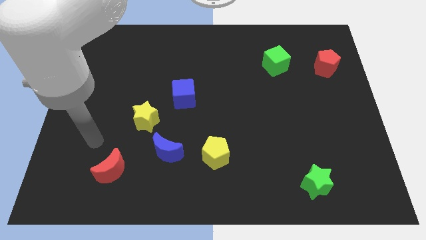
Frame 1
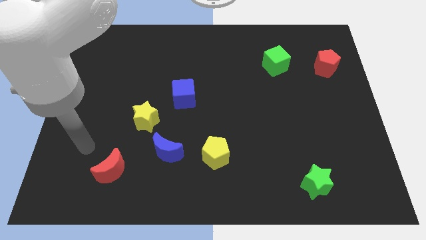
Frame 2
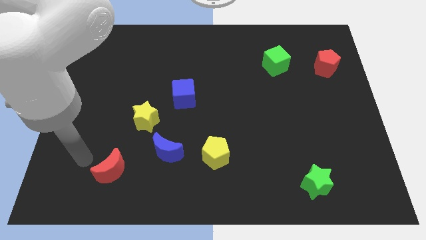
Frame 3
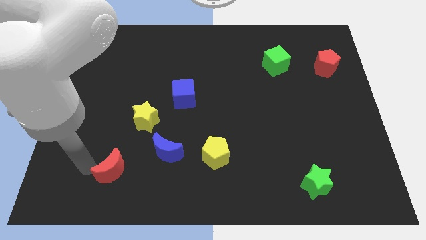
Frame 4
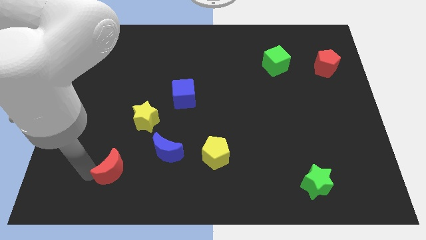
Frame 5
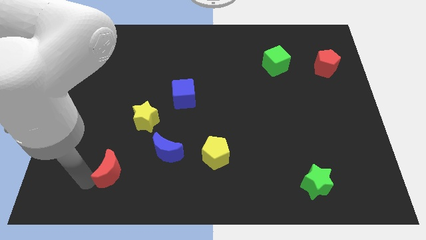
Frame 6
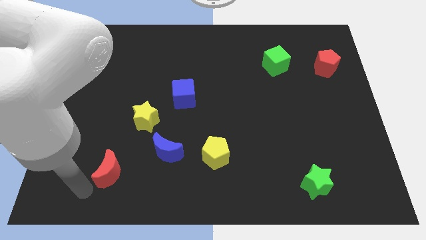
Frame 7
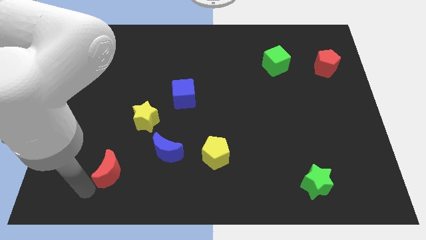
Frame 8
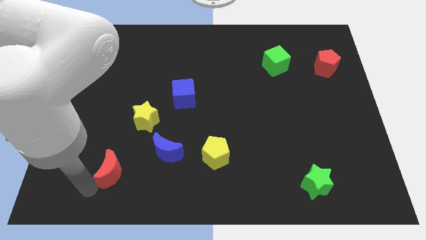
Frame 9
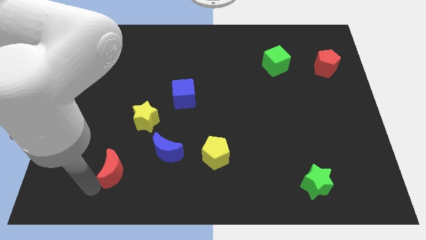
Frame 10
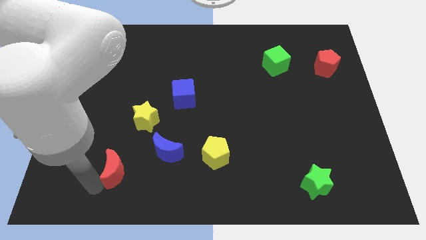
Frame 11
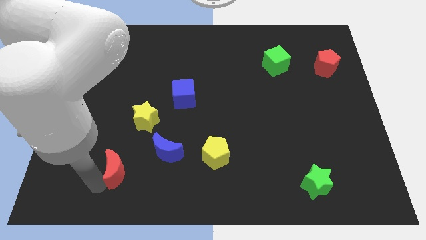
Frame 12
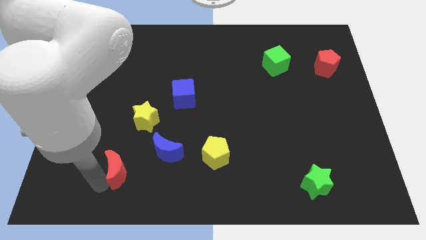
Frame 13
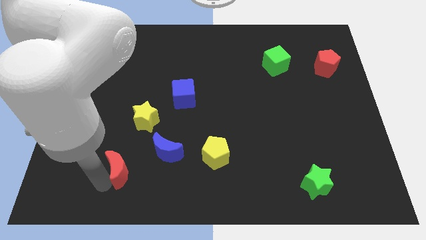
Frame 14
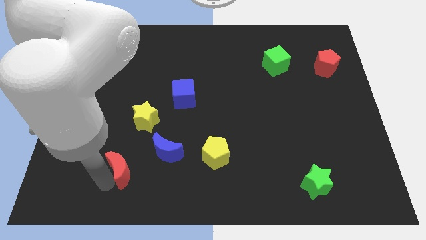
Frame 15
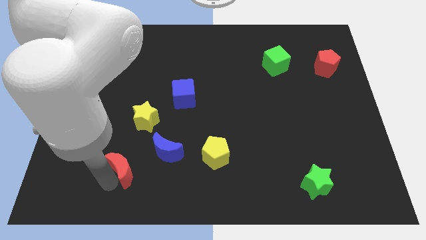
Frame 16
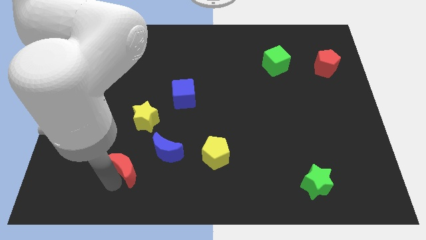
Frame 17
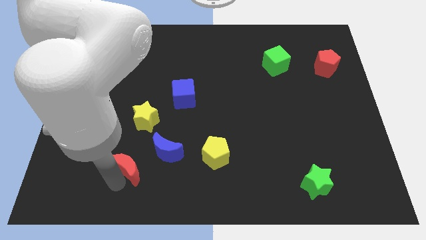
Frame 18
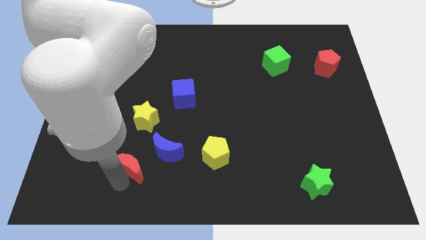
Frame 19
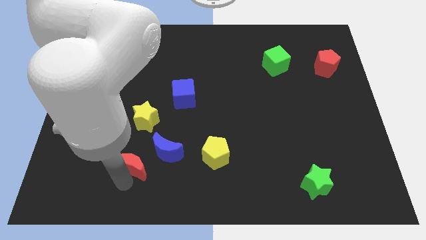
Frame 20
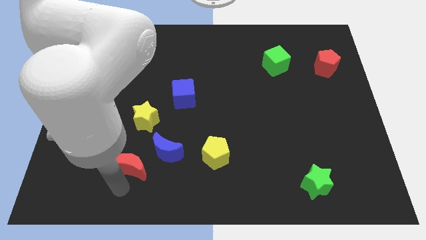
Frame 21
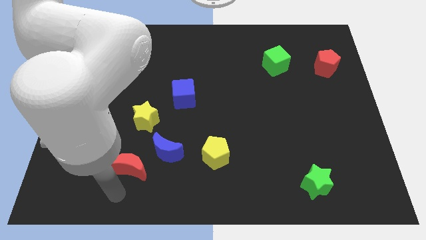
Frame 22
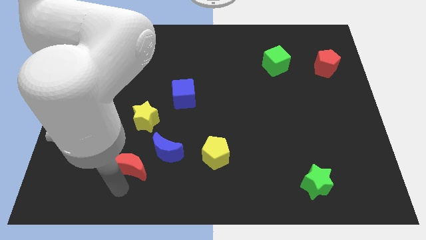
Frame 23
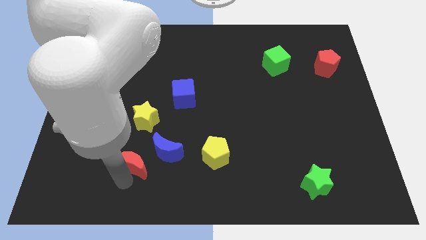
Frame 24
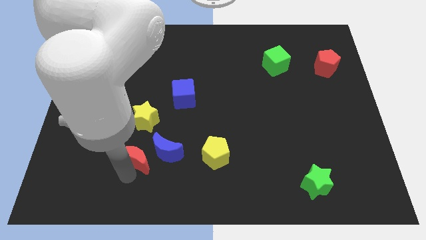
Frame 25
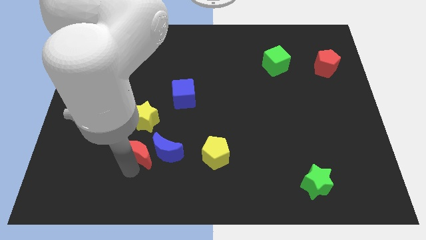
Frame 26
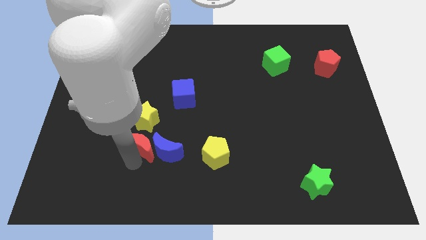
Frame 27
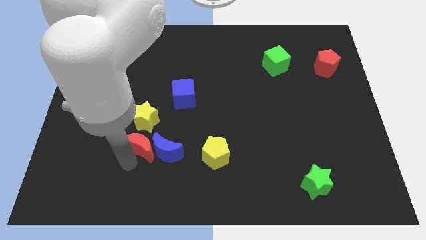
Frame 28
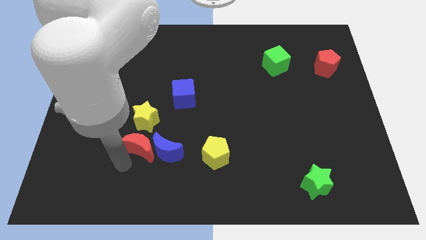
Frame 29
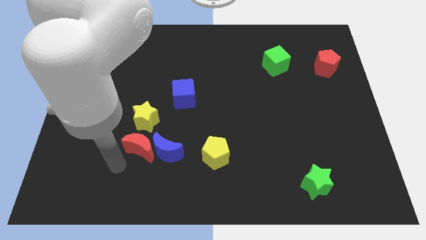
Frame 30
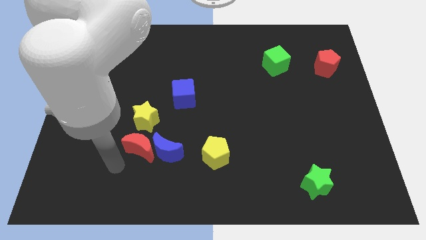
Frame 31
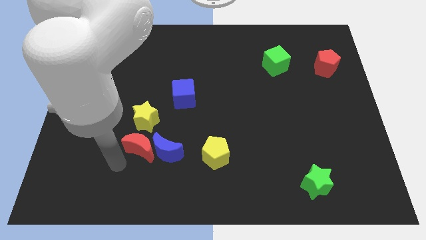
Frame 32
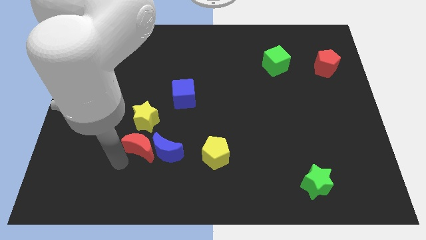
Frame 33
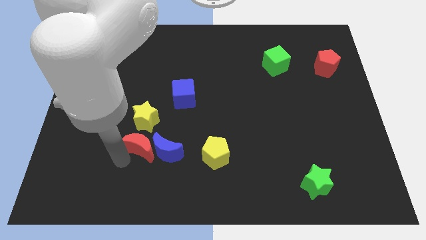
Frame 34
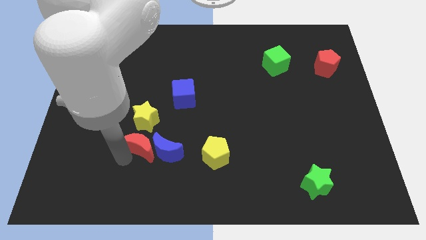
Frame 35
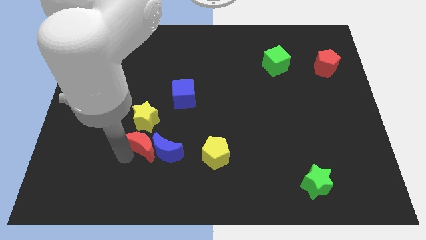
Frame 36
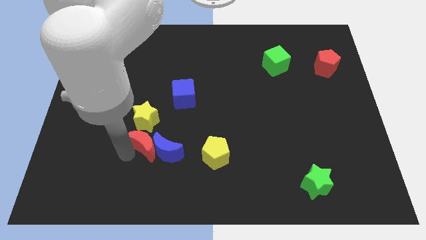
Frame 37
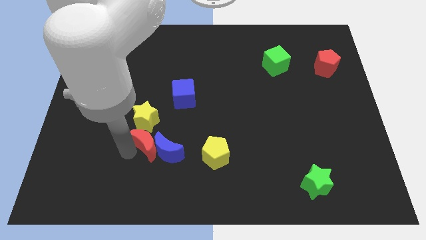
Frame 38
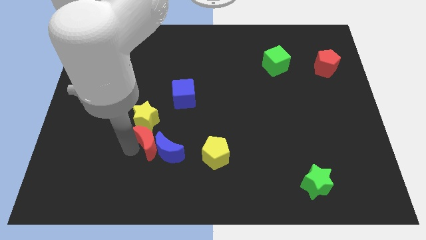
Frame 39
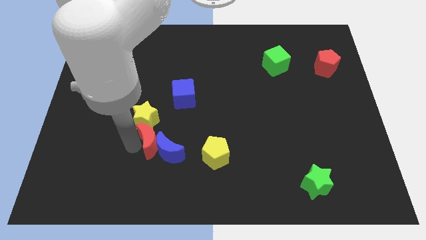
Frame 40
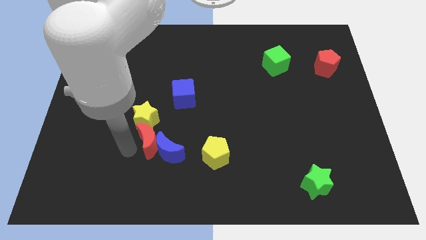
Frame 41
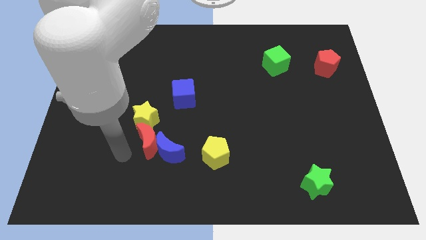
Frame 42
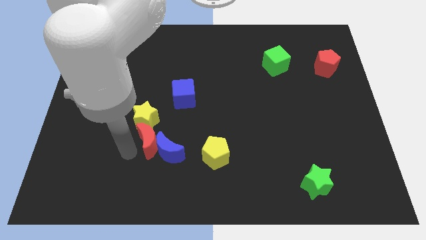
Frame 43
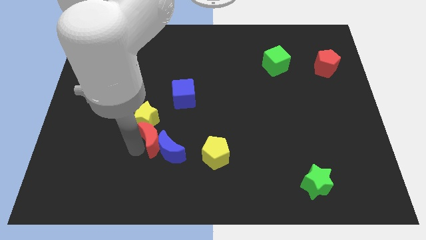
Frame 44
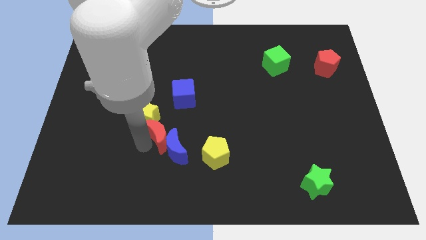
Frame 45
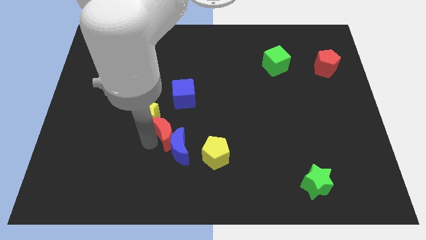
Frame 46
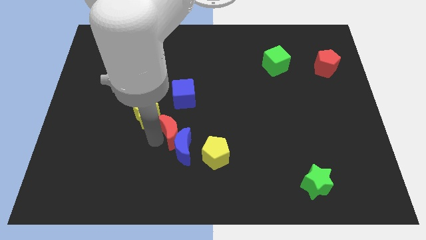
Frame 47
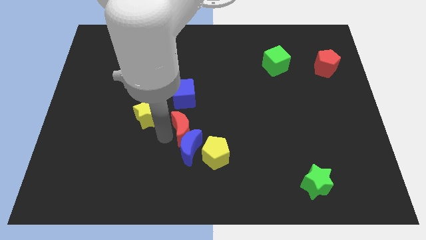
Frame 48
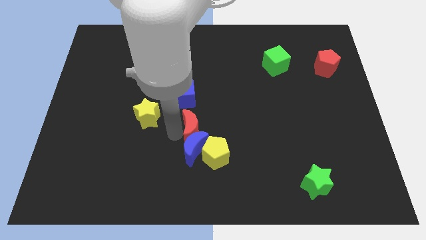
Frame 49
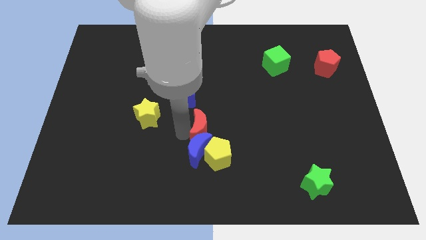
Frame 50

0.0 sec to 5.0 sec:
slide the red moon to the top side of the yellow pentagon

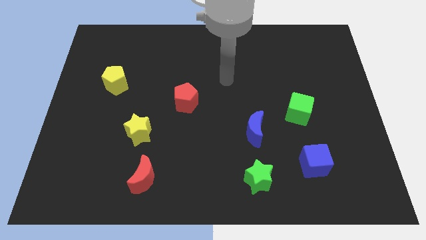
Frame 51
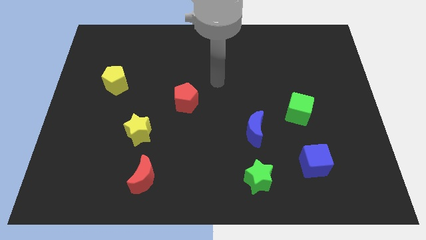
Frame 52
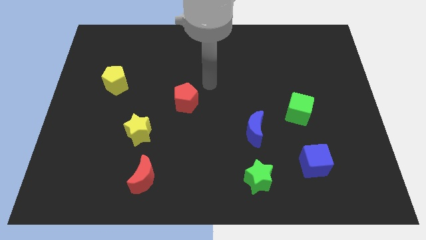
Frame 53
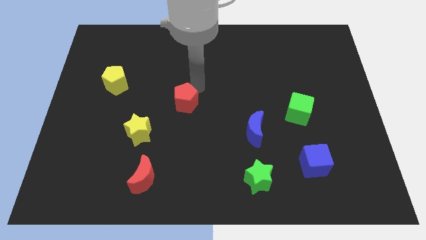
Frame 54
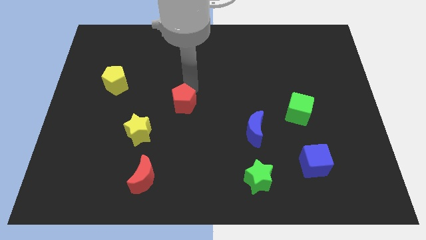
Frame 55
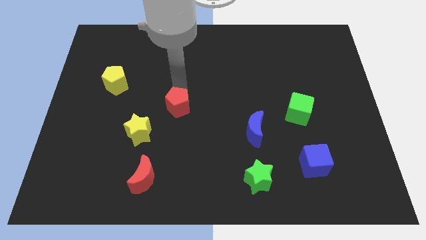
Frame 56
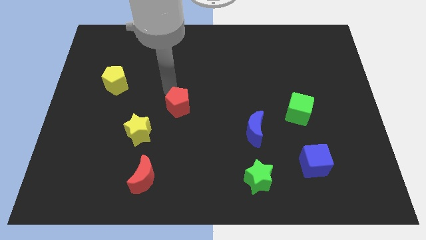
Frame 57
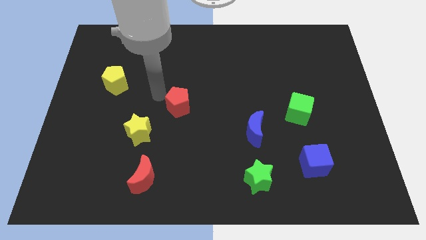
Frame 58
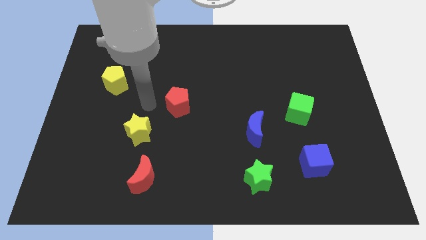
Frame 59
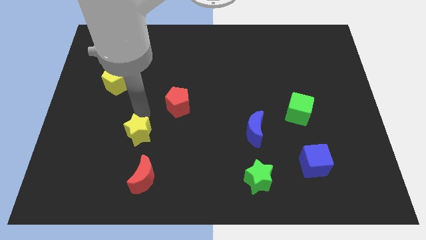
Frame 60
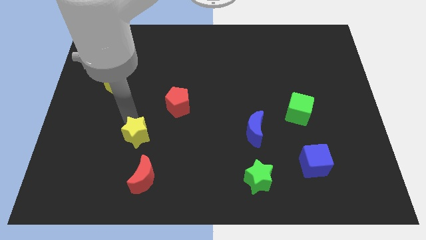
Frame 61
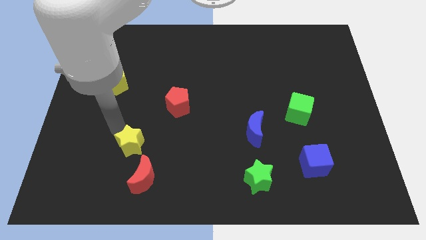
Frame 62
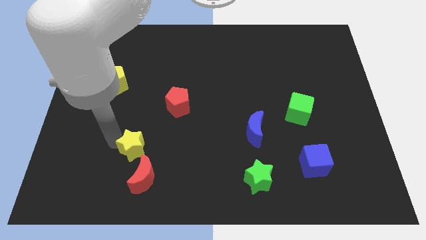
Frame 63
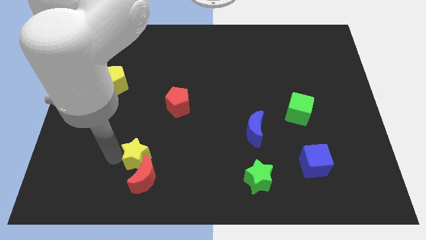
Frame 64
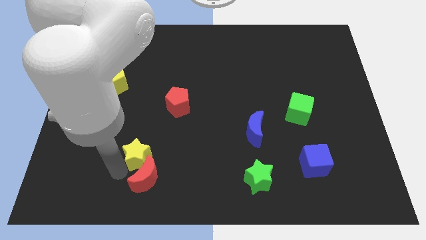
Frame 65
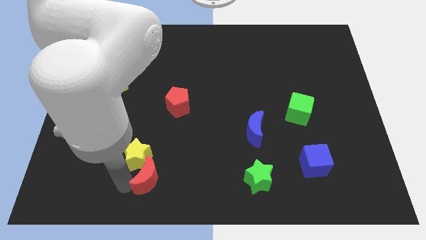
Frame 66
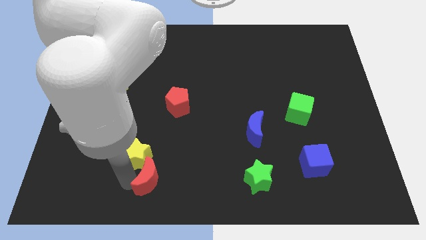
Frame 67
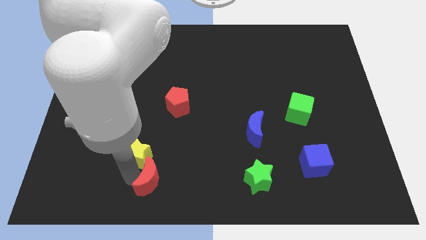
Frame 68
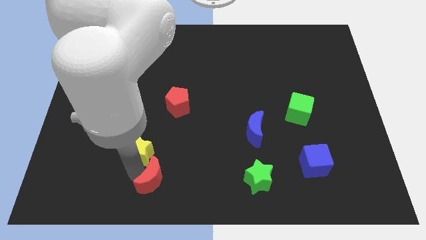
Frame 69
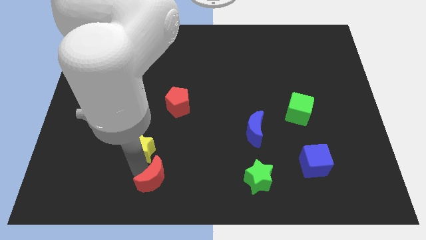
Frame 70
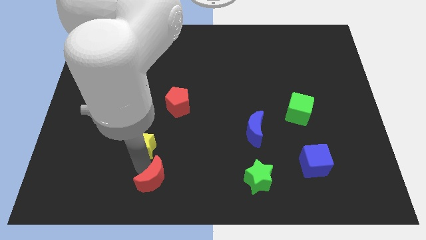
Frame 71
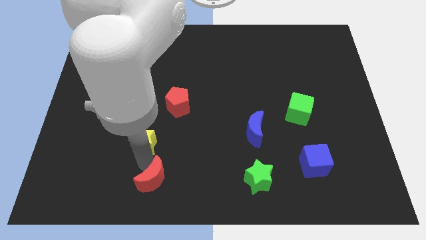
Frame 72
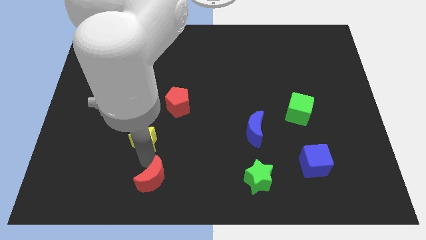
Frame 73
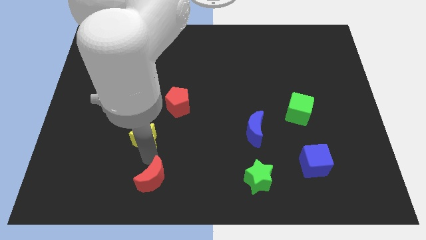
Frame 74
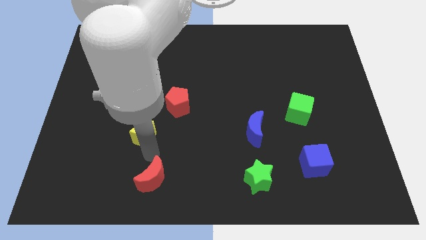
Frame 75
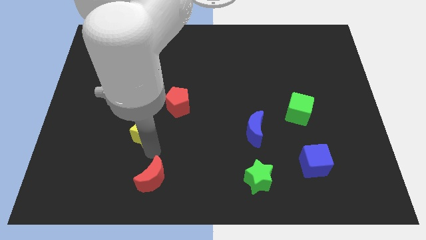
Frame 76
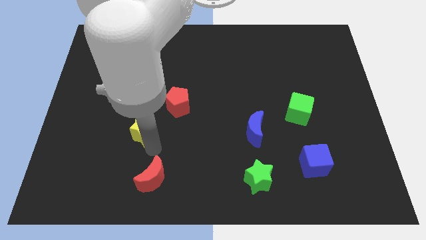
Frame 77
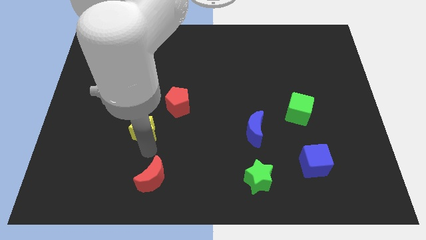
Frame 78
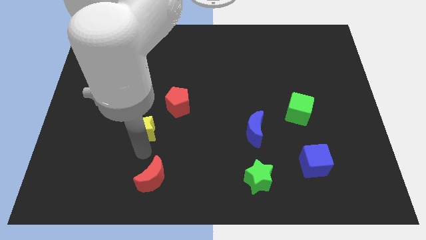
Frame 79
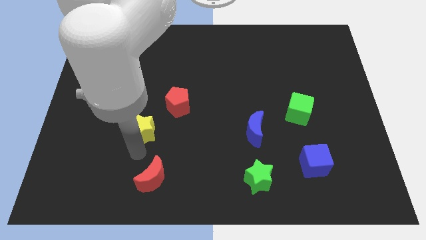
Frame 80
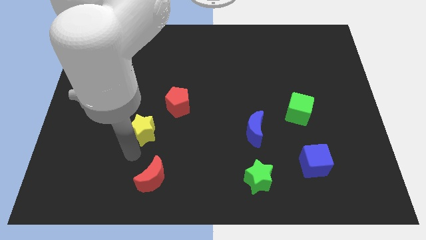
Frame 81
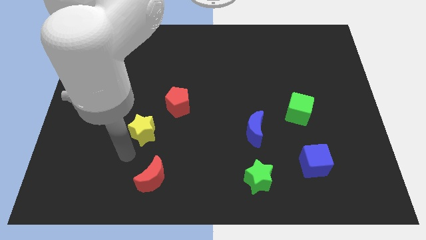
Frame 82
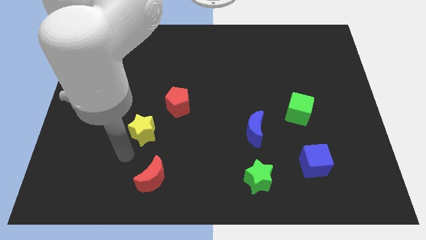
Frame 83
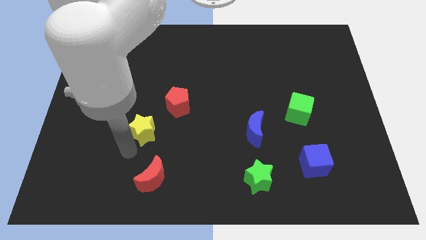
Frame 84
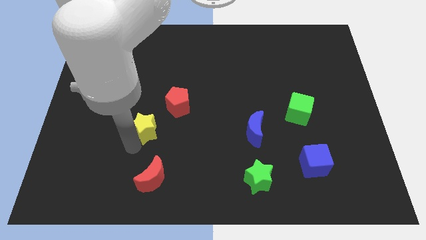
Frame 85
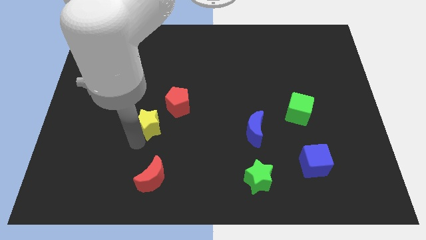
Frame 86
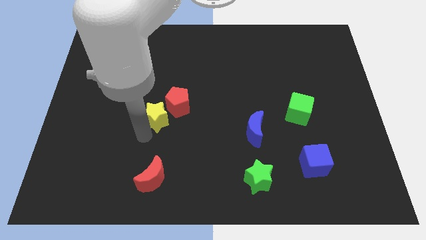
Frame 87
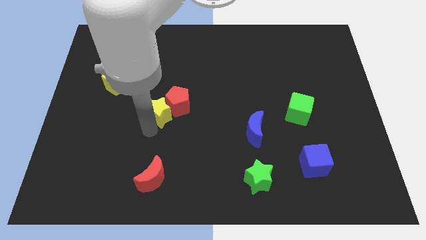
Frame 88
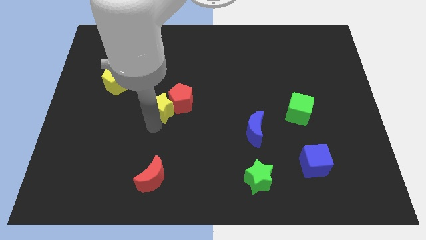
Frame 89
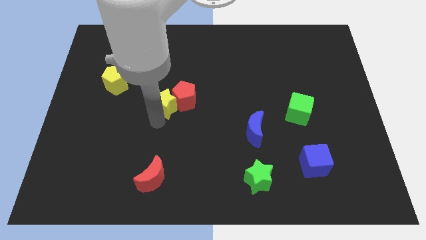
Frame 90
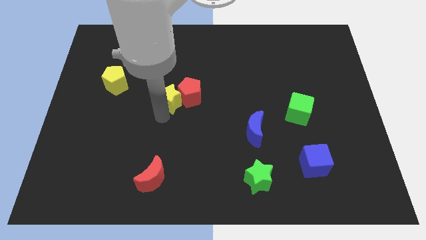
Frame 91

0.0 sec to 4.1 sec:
push the yellow star diagonally up and to the left of the red pentagon
